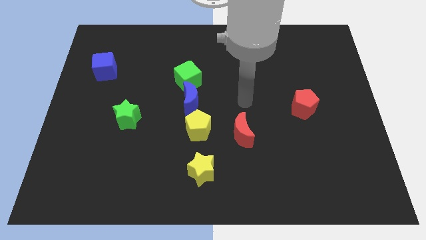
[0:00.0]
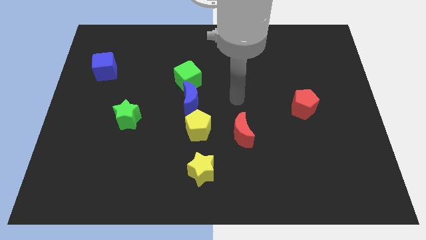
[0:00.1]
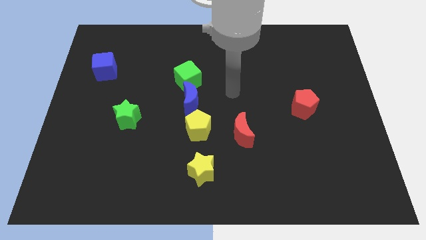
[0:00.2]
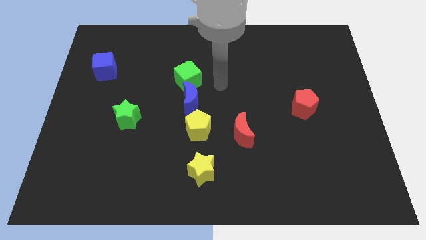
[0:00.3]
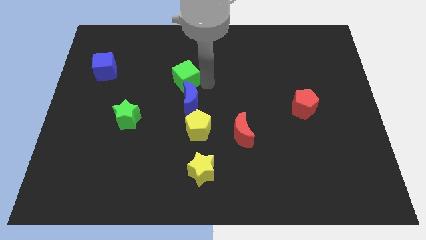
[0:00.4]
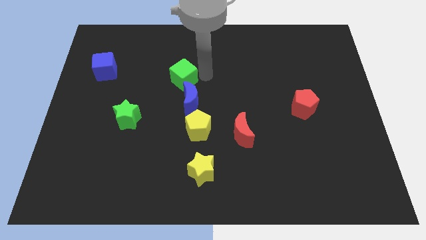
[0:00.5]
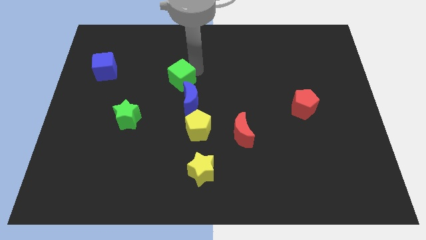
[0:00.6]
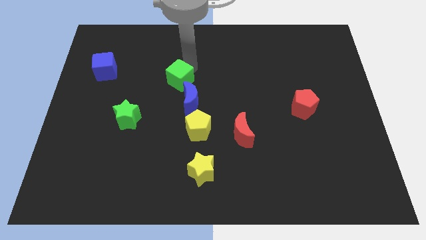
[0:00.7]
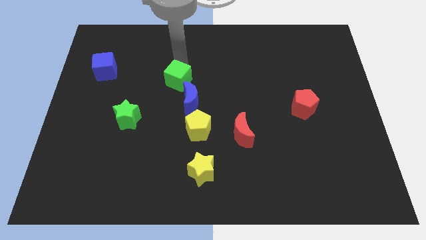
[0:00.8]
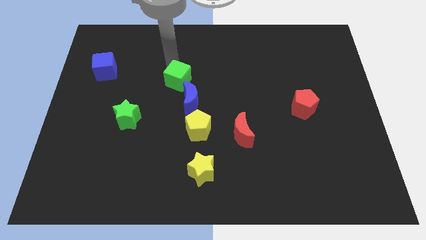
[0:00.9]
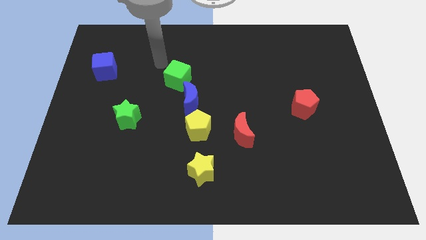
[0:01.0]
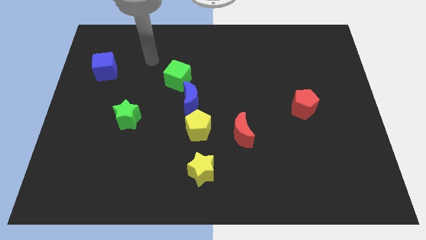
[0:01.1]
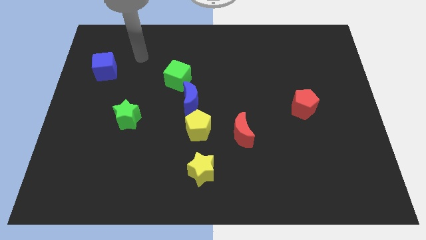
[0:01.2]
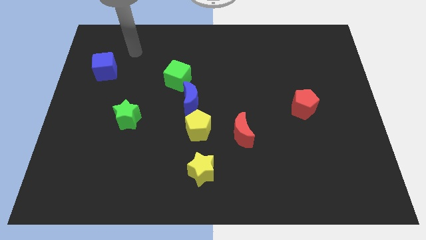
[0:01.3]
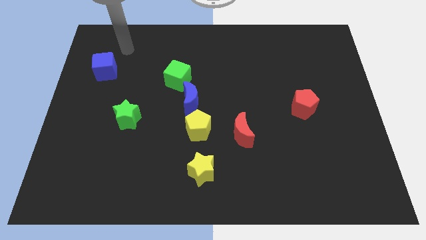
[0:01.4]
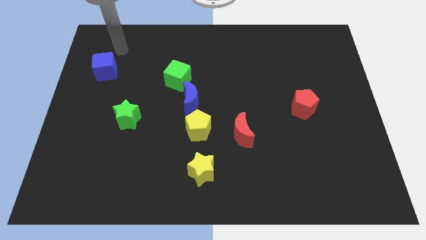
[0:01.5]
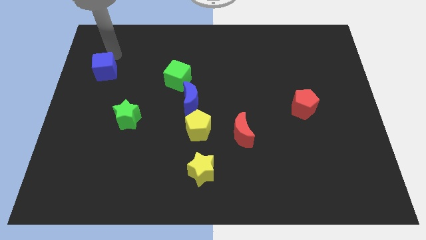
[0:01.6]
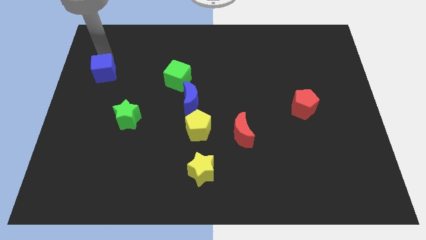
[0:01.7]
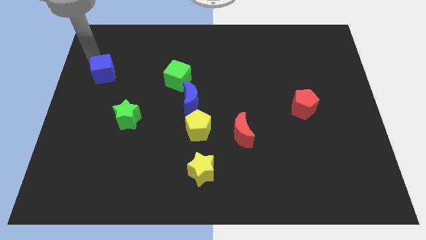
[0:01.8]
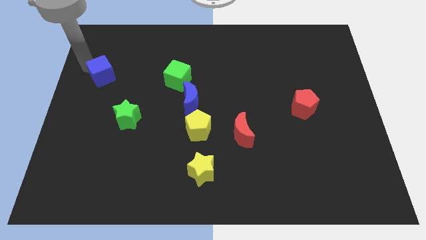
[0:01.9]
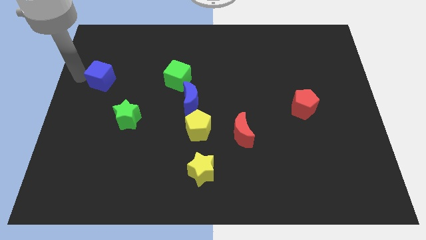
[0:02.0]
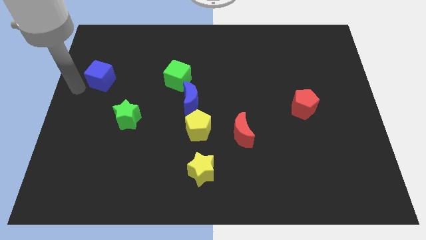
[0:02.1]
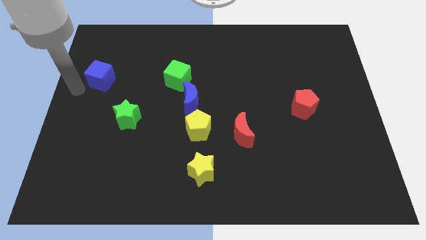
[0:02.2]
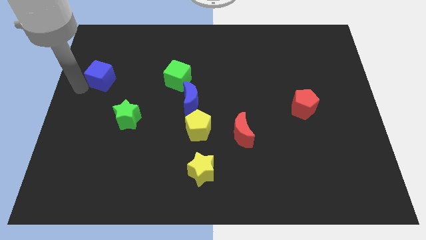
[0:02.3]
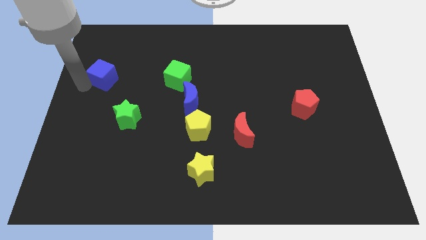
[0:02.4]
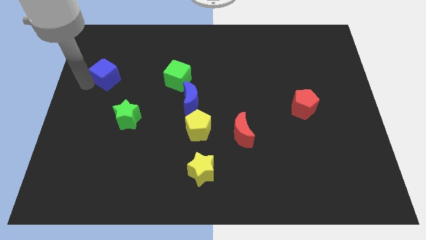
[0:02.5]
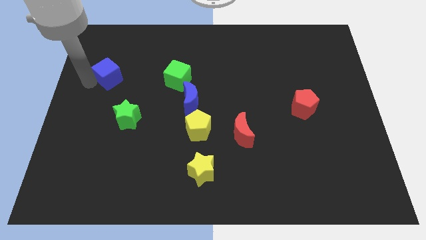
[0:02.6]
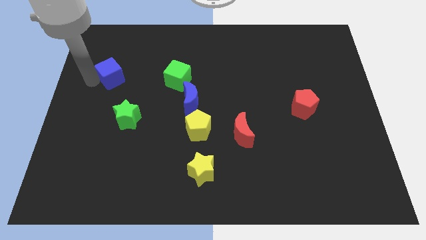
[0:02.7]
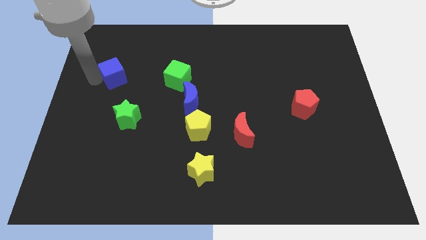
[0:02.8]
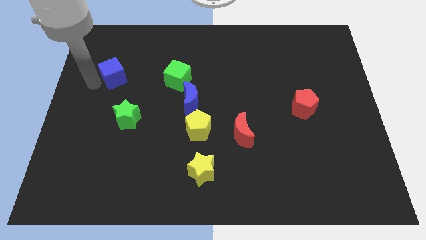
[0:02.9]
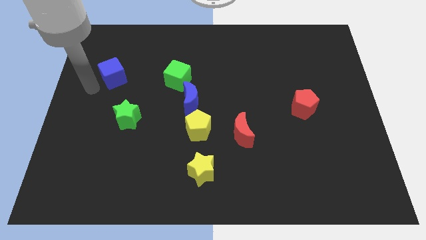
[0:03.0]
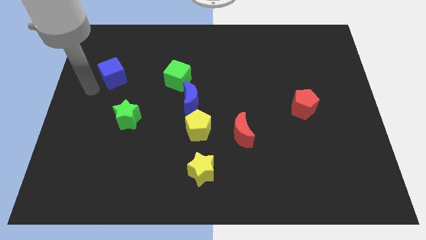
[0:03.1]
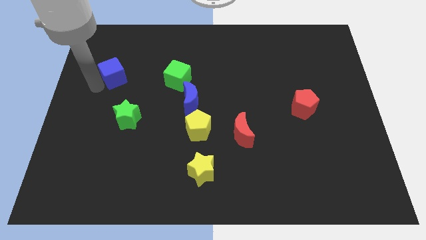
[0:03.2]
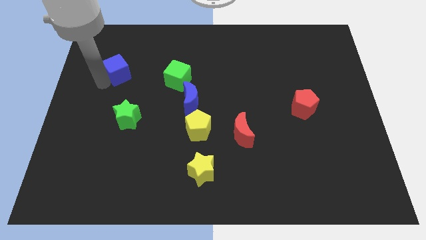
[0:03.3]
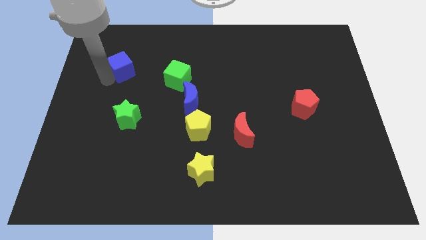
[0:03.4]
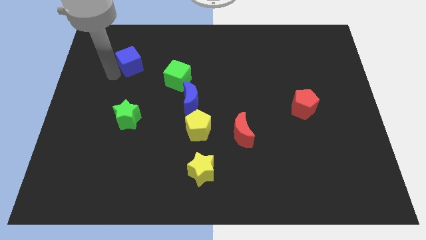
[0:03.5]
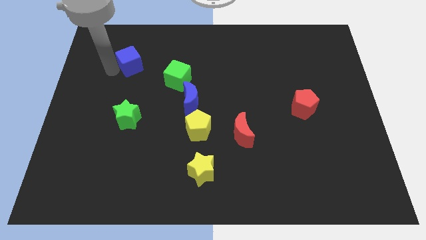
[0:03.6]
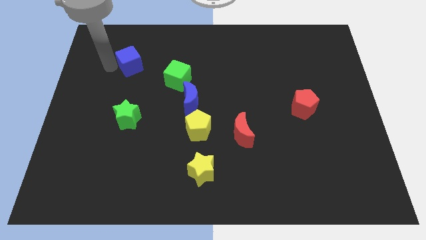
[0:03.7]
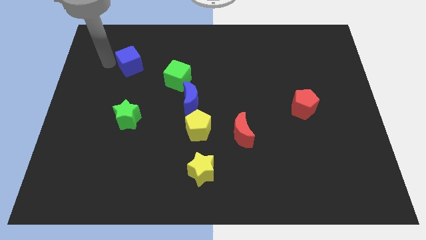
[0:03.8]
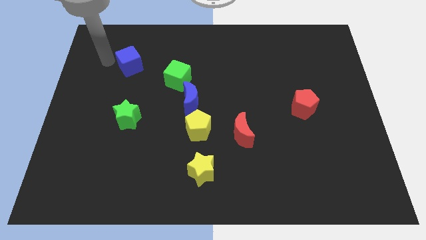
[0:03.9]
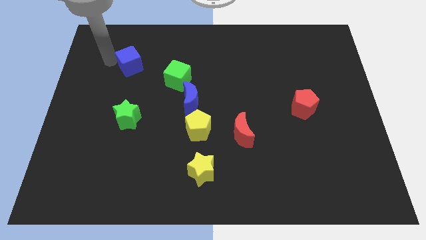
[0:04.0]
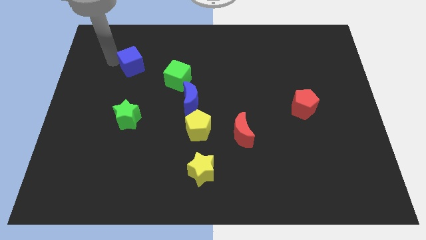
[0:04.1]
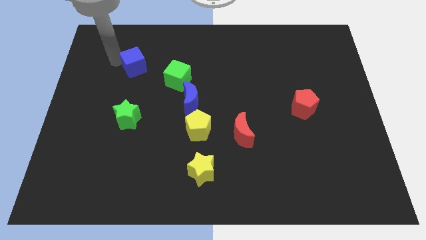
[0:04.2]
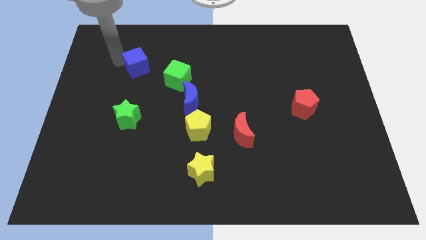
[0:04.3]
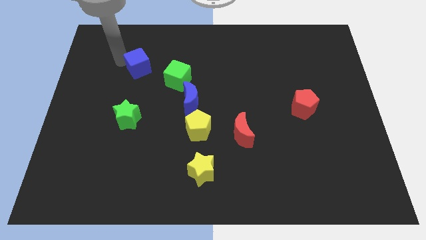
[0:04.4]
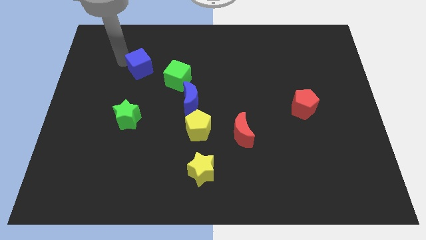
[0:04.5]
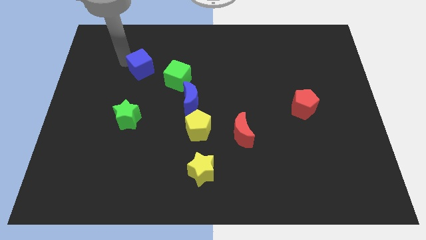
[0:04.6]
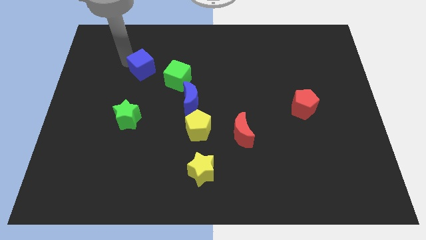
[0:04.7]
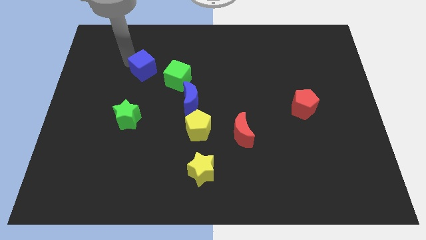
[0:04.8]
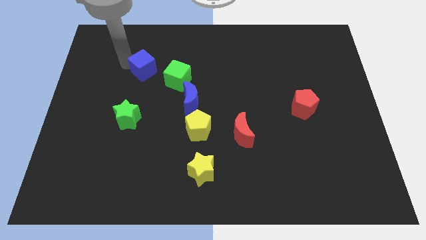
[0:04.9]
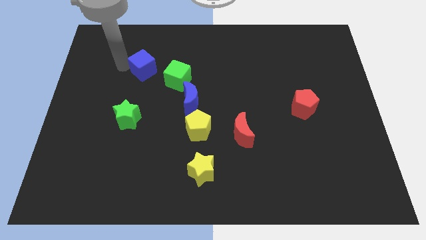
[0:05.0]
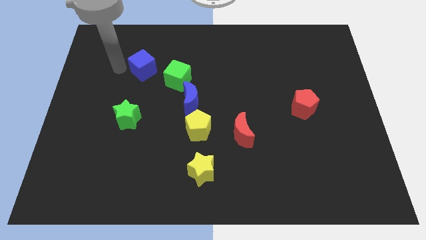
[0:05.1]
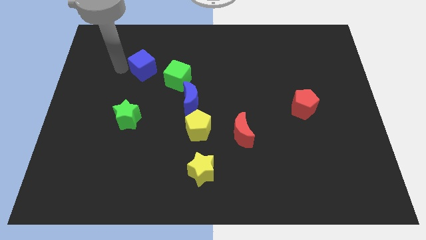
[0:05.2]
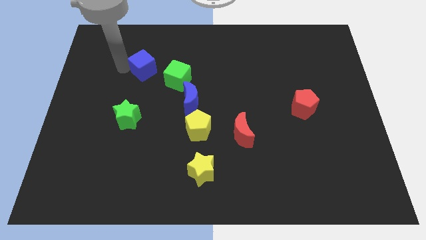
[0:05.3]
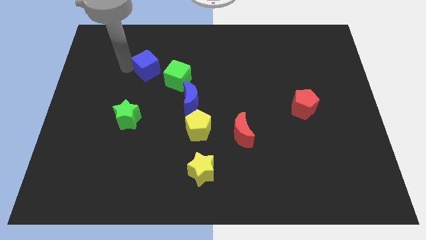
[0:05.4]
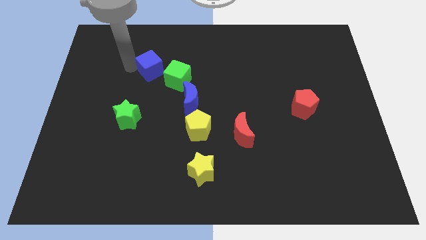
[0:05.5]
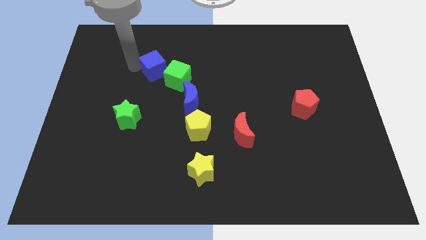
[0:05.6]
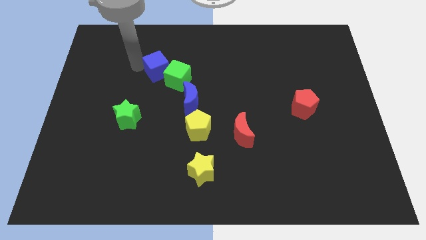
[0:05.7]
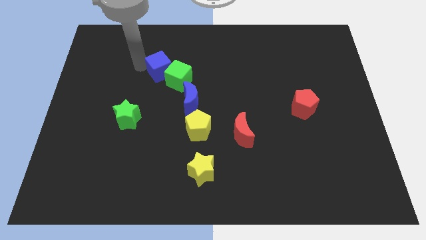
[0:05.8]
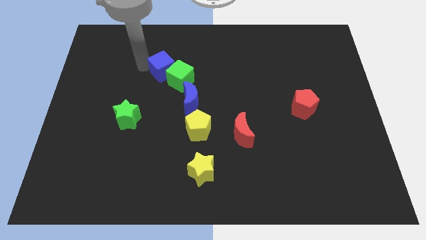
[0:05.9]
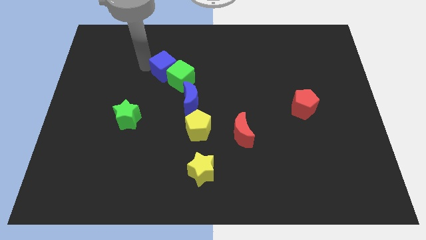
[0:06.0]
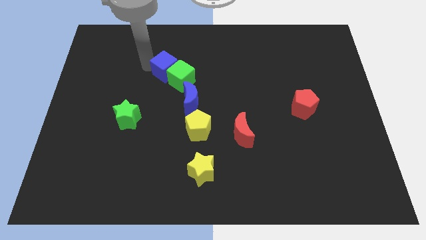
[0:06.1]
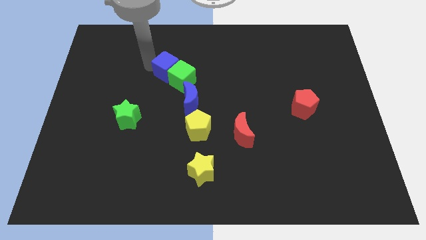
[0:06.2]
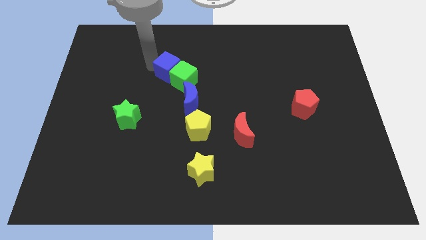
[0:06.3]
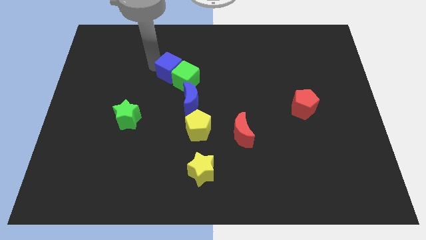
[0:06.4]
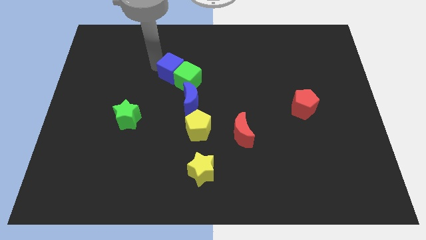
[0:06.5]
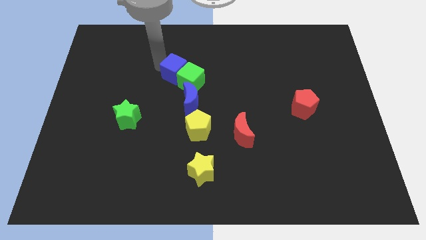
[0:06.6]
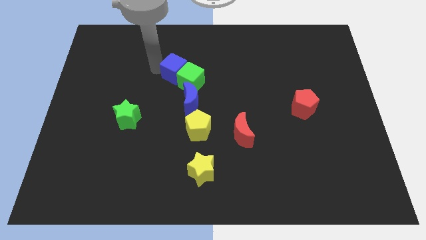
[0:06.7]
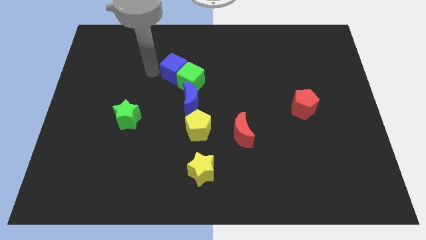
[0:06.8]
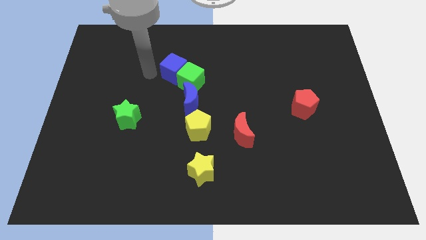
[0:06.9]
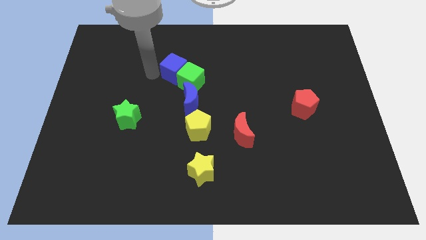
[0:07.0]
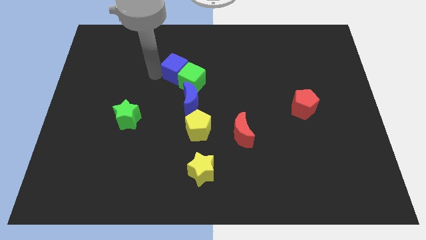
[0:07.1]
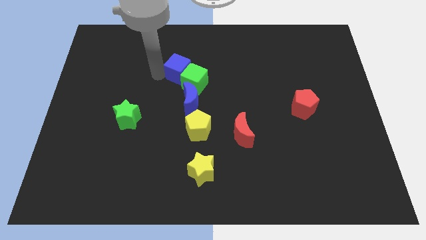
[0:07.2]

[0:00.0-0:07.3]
move the blue cube to the middle of the board
